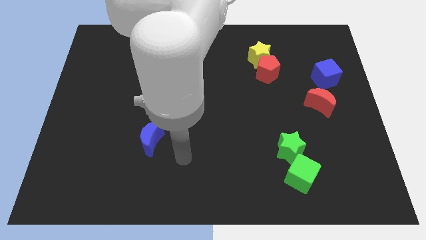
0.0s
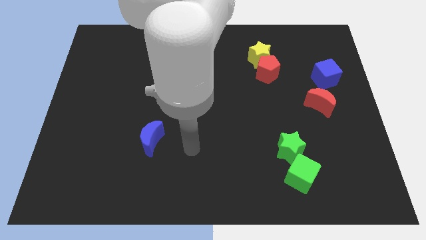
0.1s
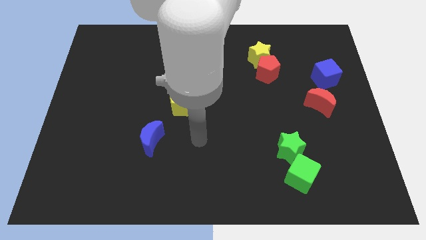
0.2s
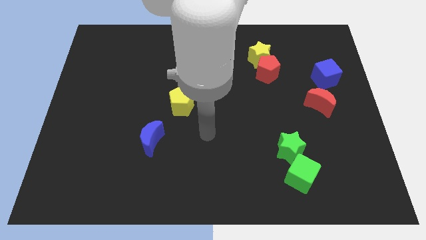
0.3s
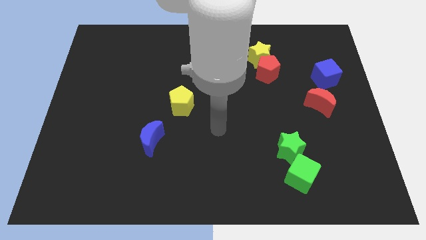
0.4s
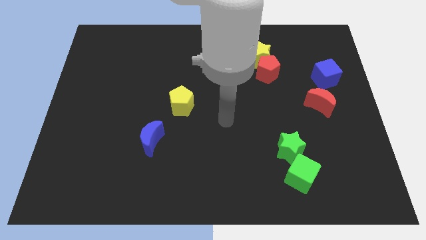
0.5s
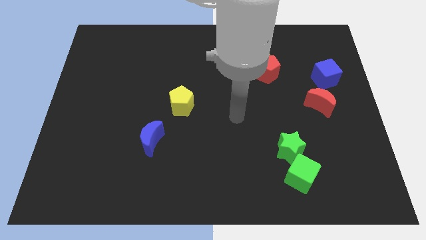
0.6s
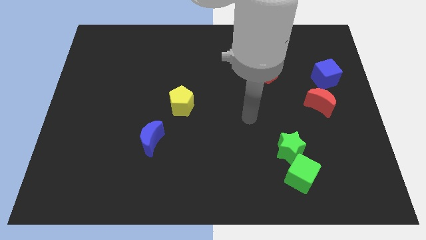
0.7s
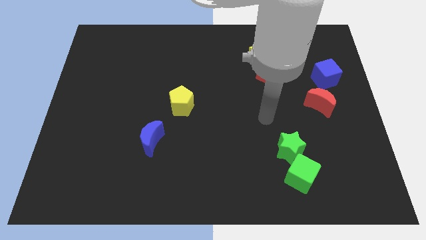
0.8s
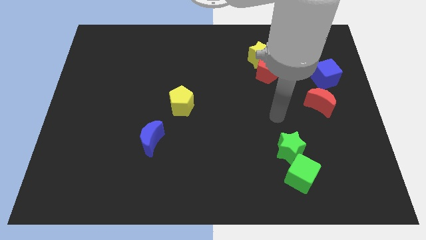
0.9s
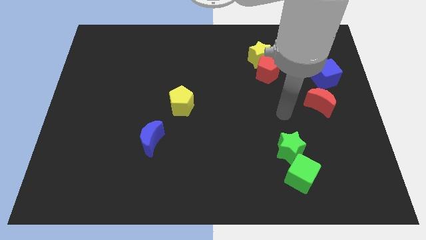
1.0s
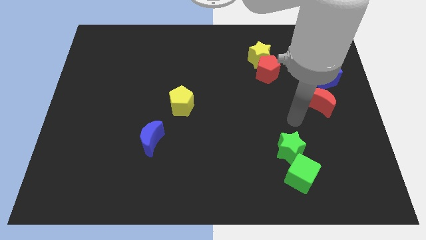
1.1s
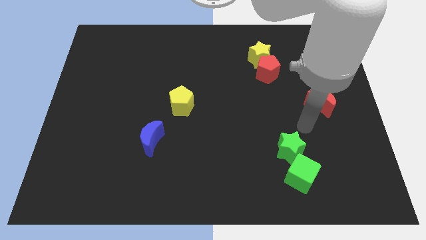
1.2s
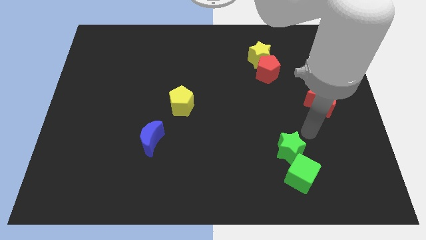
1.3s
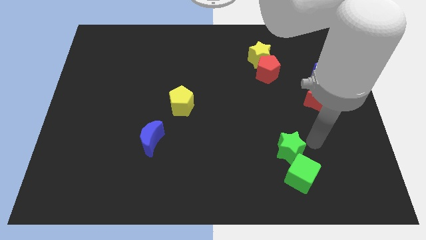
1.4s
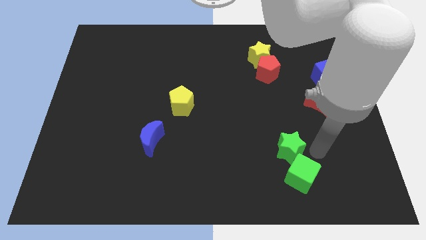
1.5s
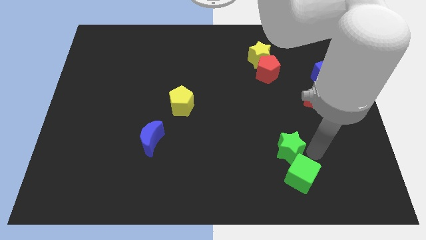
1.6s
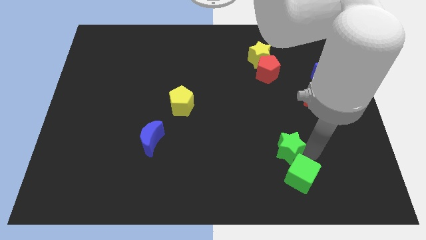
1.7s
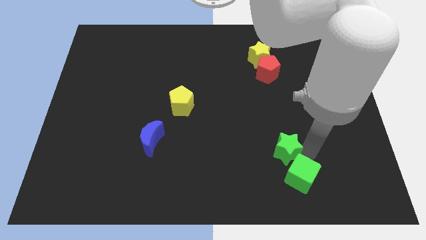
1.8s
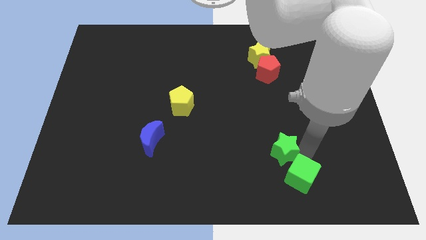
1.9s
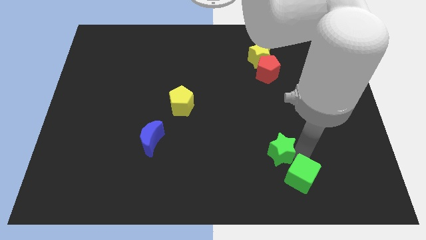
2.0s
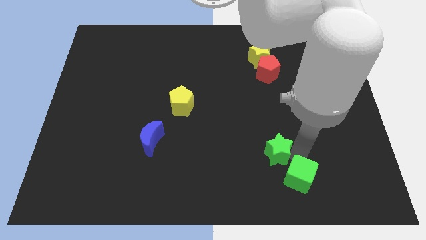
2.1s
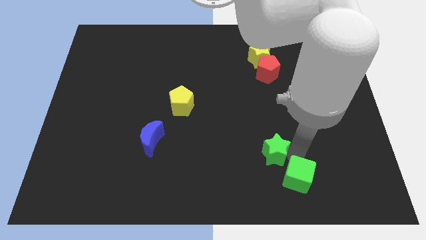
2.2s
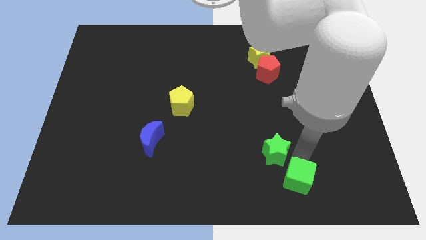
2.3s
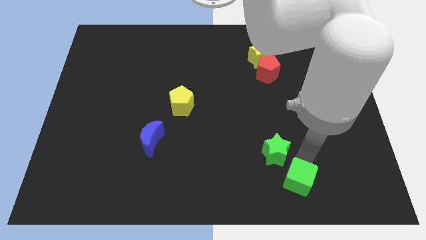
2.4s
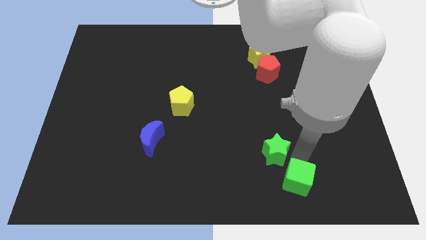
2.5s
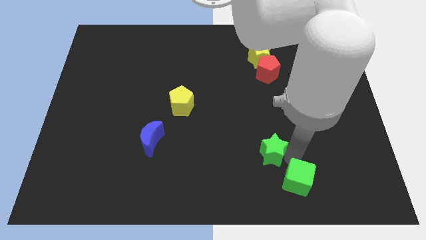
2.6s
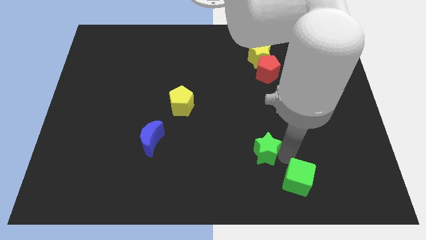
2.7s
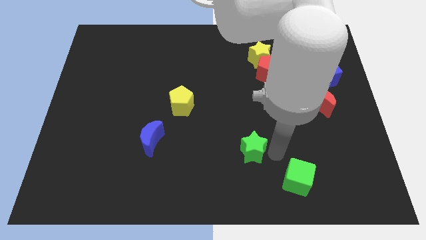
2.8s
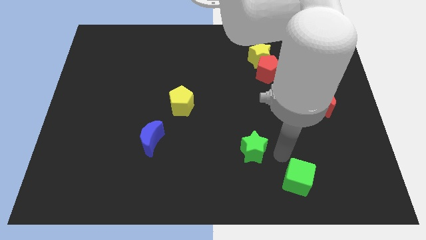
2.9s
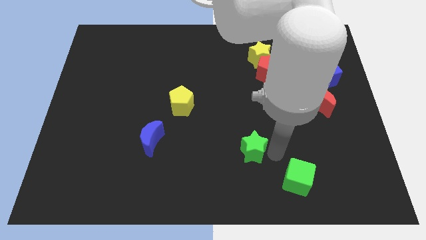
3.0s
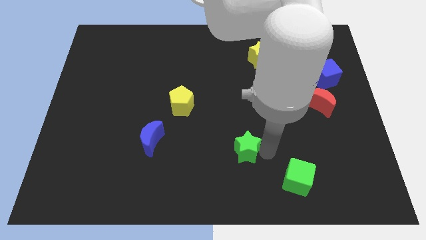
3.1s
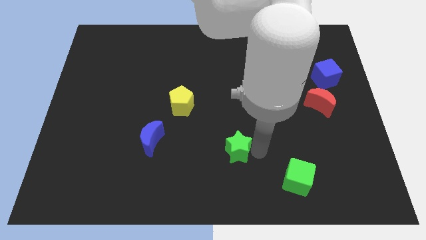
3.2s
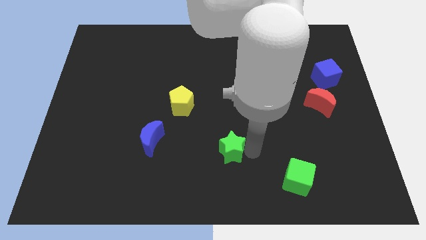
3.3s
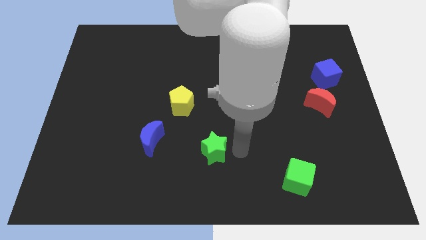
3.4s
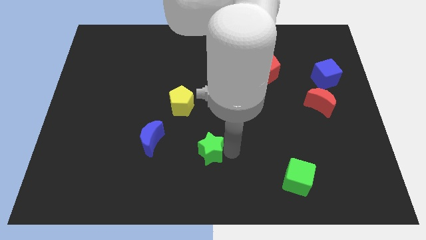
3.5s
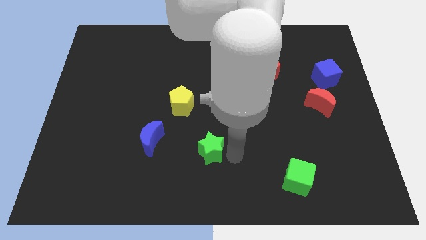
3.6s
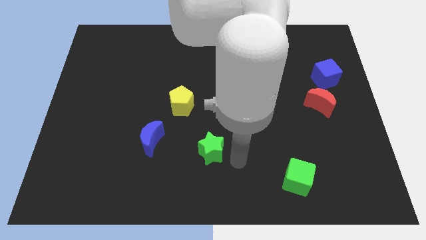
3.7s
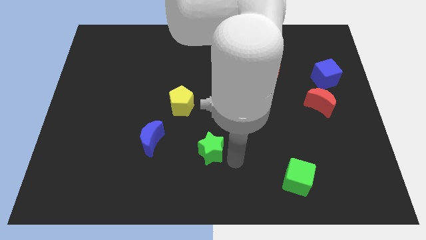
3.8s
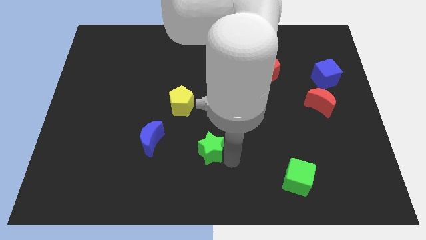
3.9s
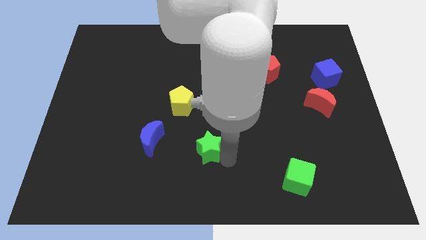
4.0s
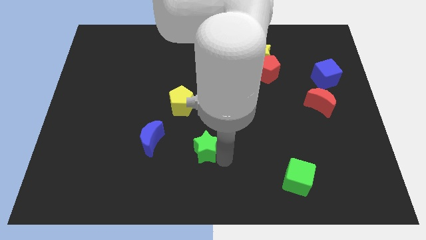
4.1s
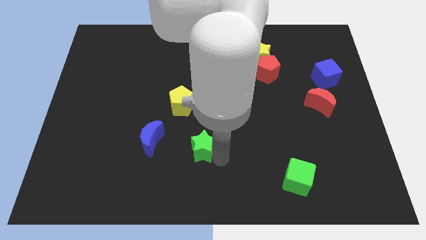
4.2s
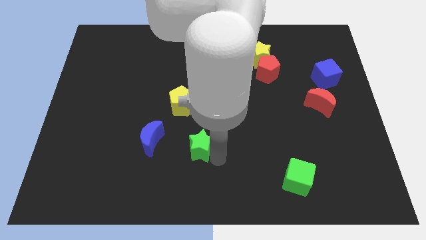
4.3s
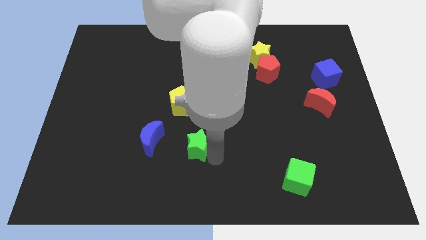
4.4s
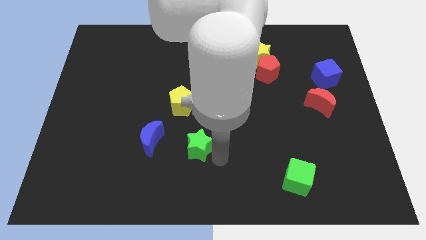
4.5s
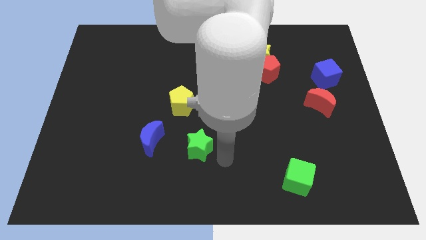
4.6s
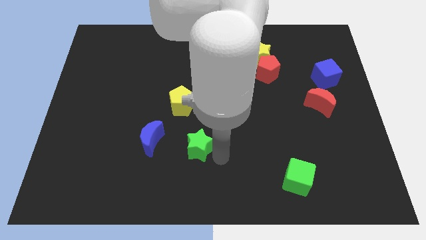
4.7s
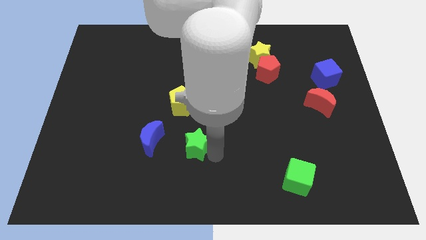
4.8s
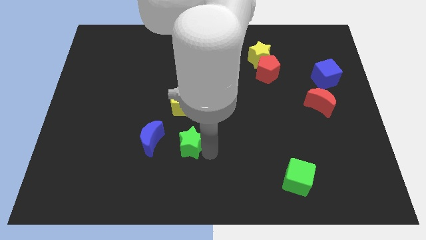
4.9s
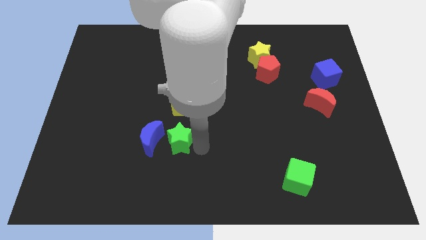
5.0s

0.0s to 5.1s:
slide the green star next to the blue moon

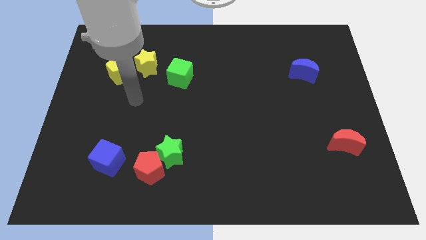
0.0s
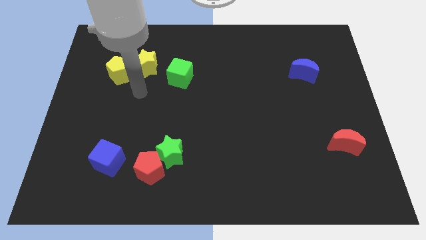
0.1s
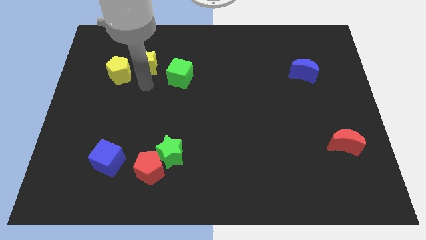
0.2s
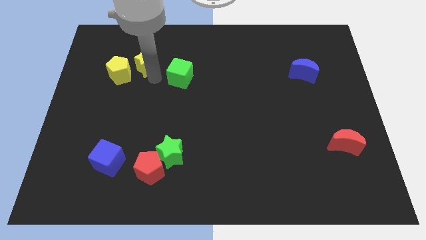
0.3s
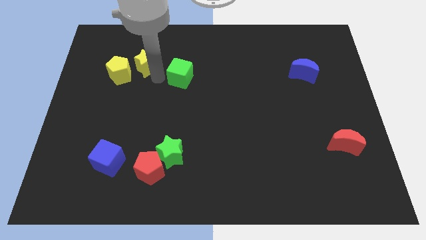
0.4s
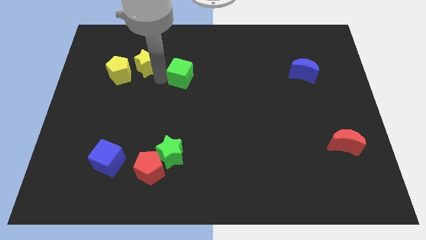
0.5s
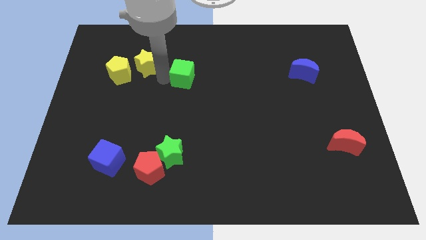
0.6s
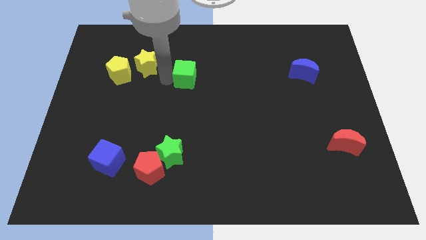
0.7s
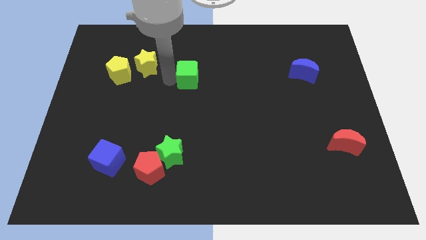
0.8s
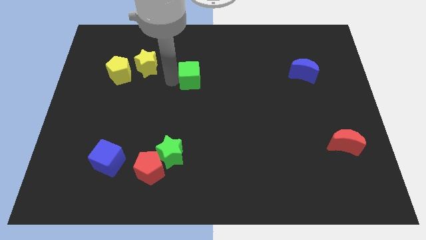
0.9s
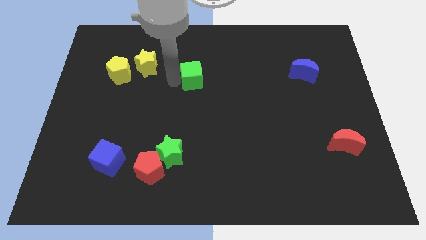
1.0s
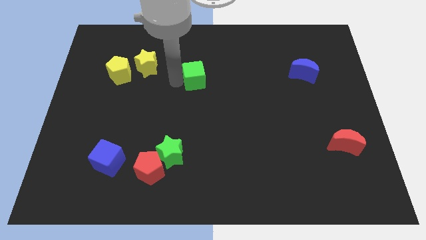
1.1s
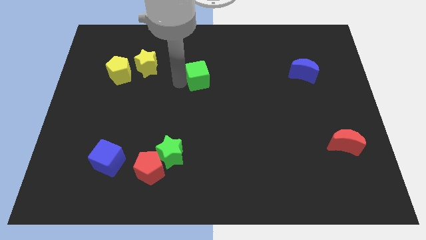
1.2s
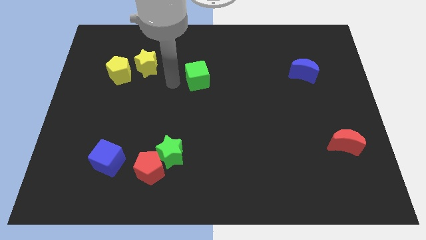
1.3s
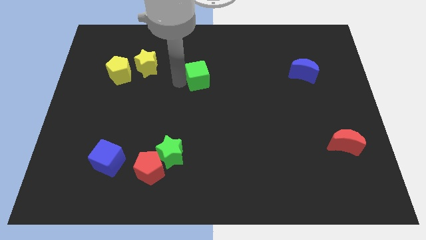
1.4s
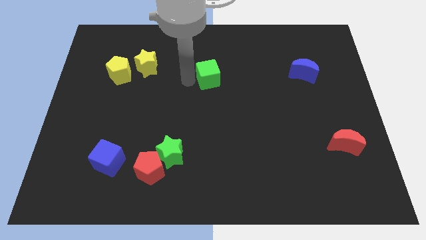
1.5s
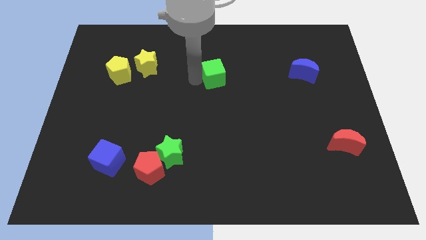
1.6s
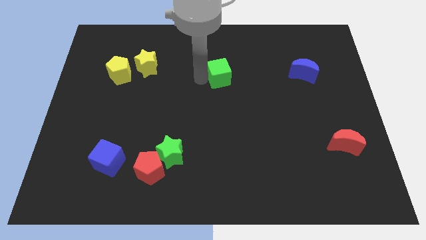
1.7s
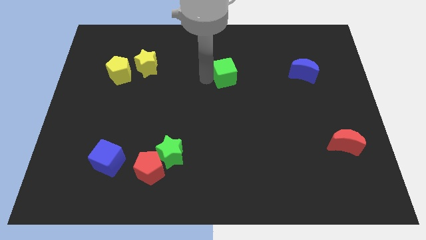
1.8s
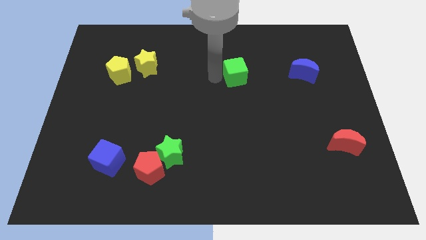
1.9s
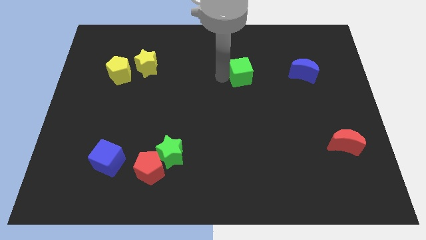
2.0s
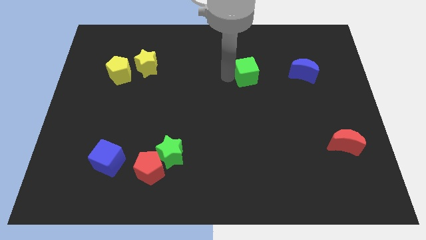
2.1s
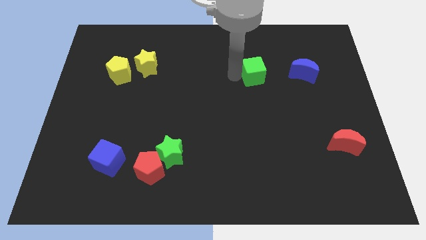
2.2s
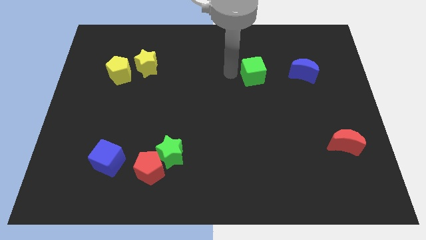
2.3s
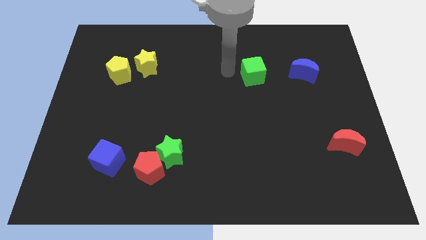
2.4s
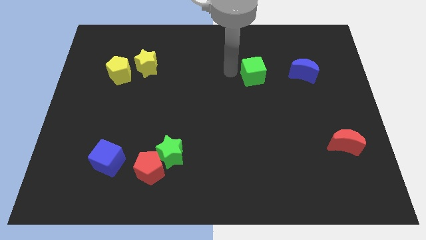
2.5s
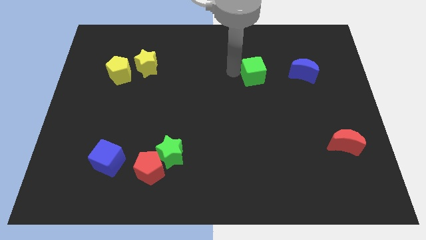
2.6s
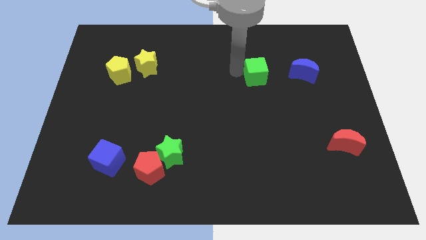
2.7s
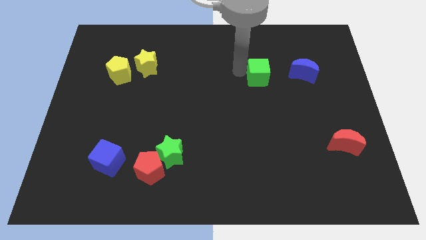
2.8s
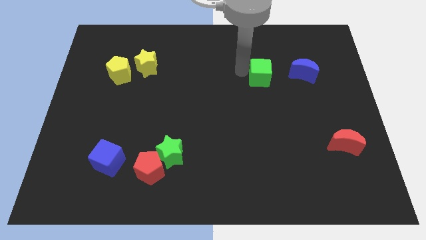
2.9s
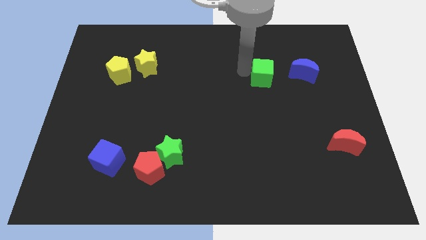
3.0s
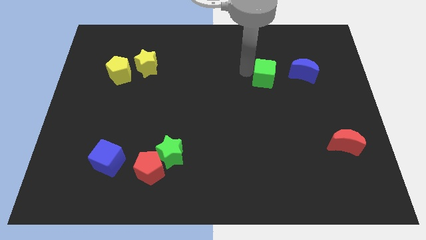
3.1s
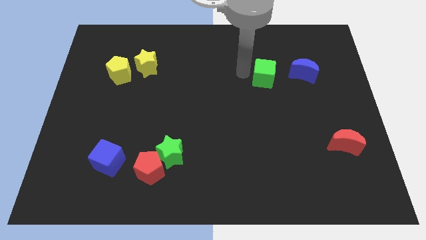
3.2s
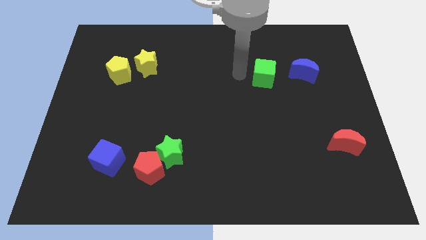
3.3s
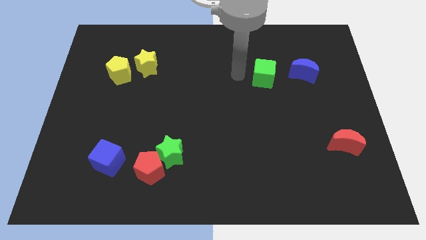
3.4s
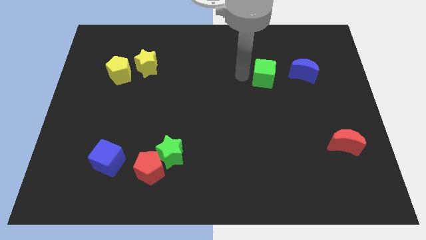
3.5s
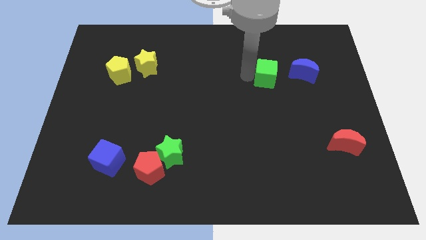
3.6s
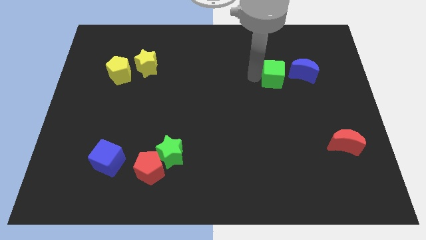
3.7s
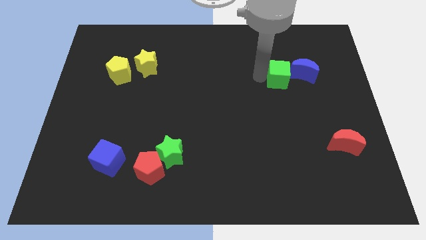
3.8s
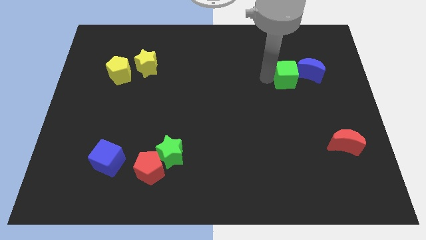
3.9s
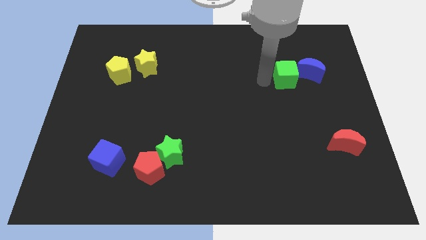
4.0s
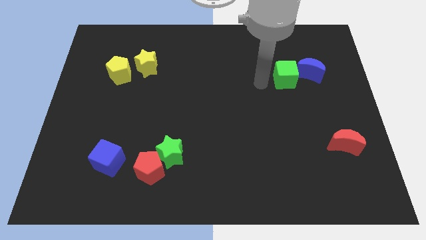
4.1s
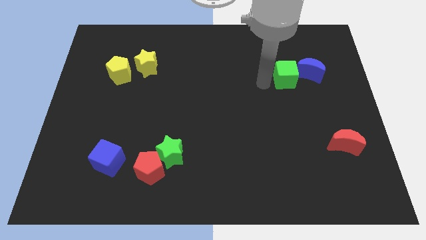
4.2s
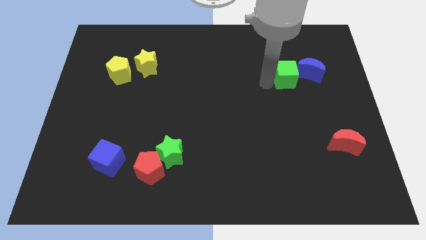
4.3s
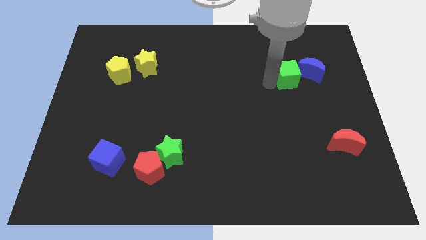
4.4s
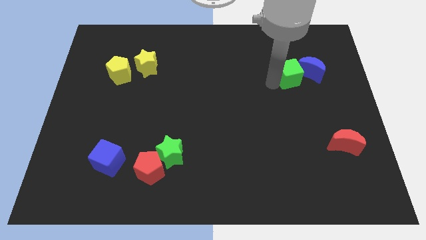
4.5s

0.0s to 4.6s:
move the green cube close to the blue moon
